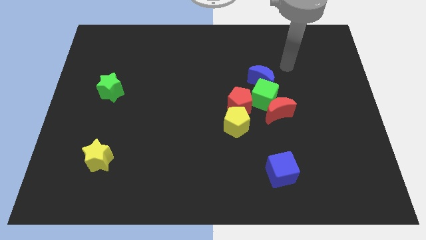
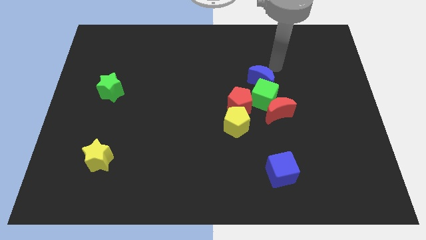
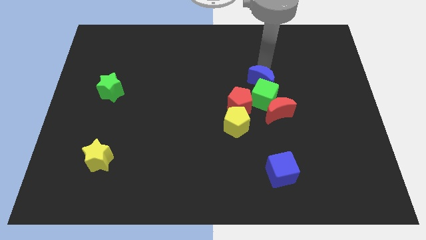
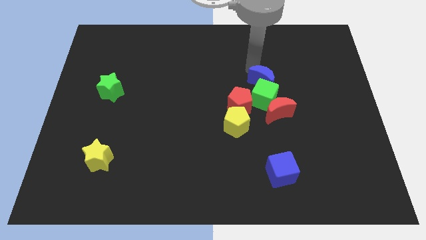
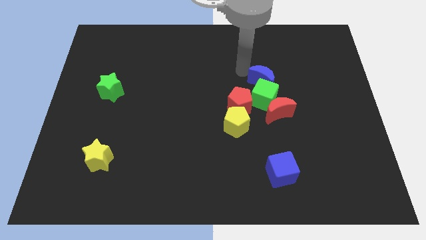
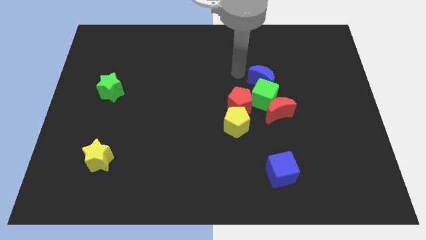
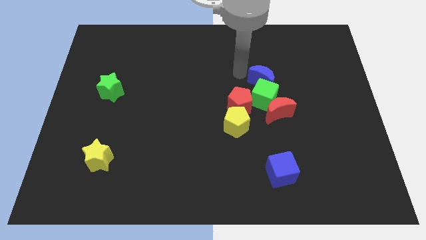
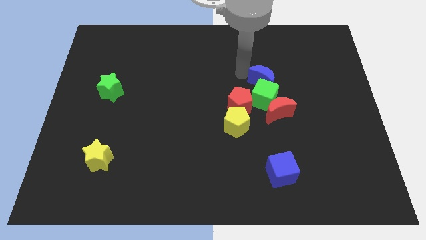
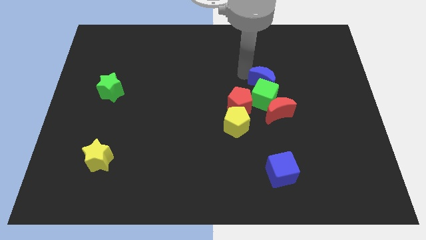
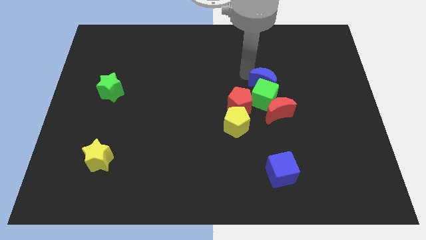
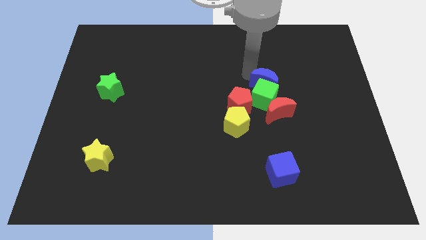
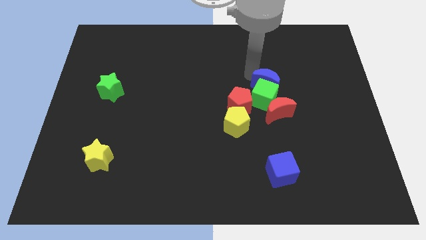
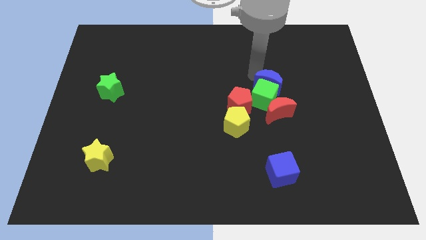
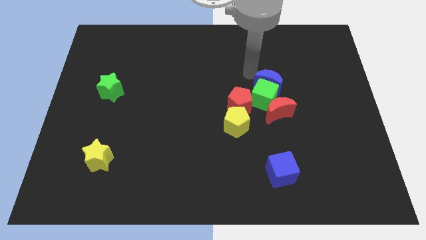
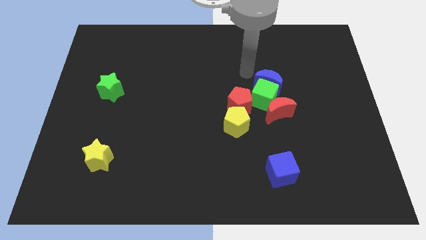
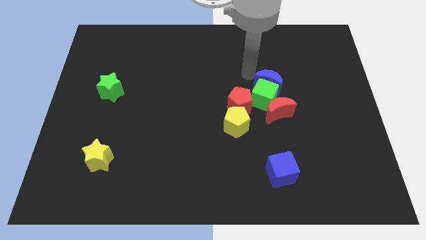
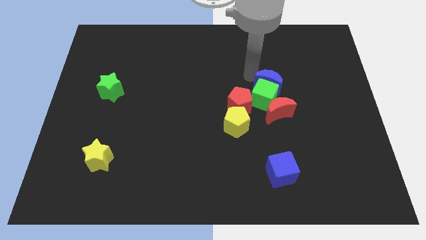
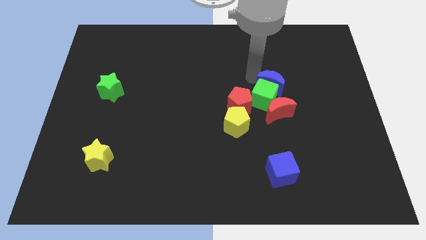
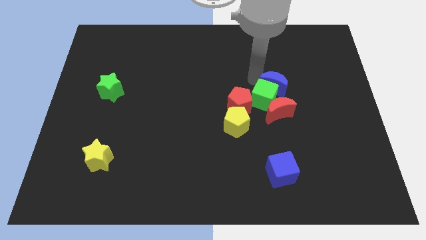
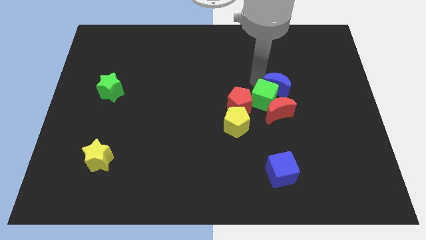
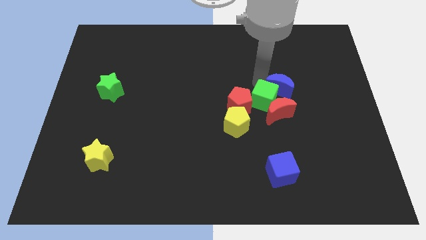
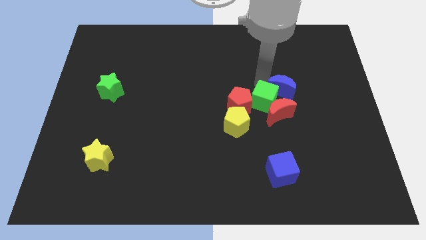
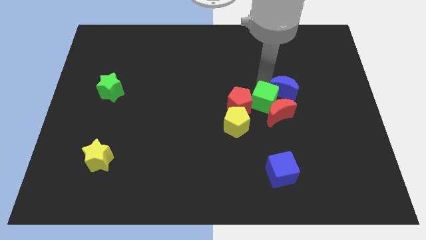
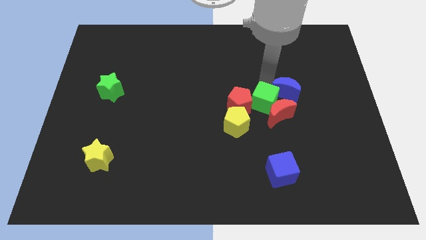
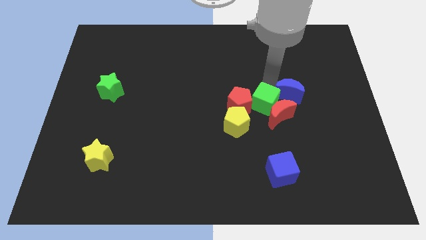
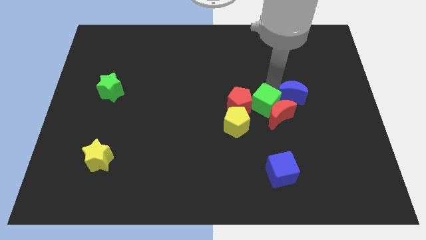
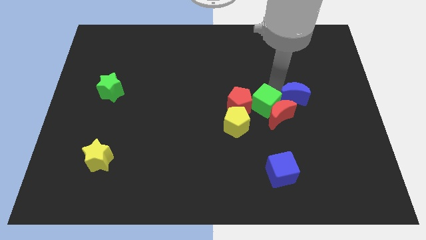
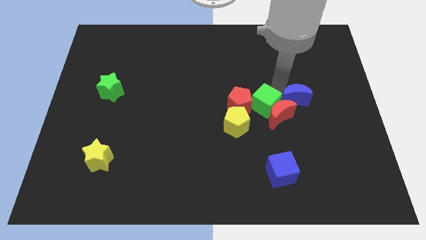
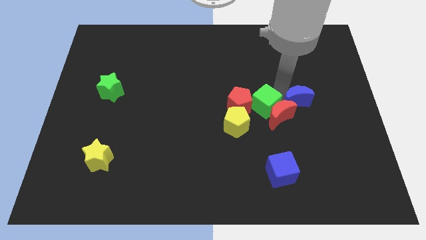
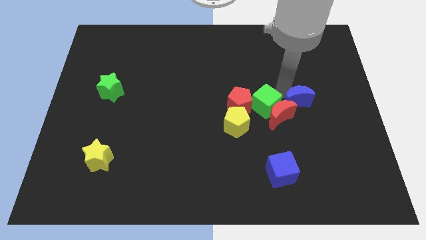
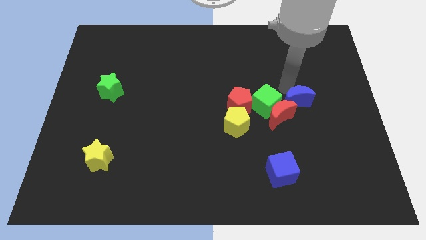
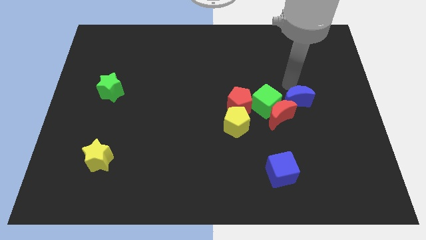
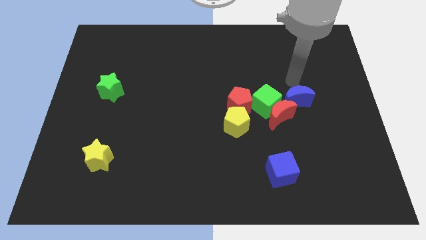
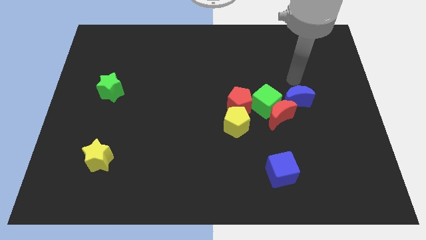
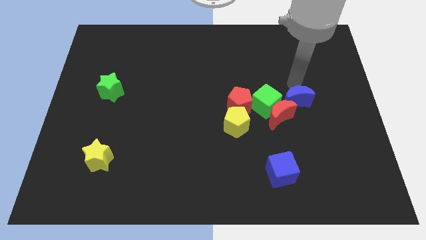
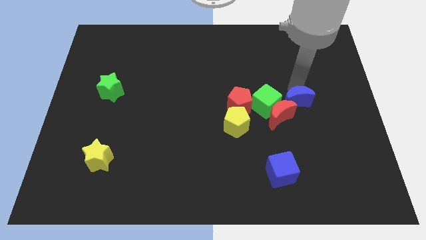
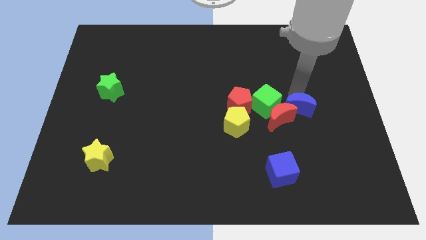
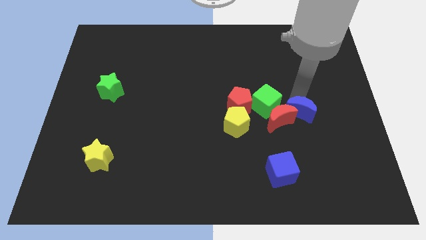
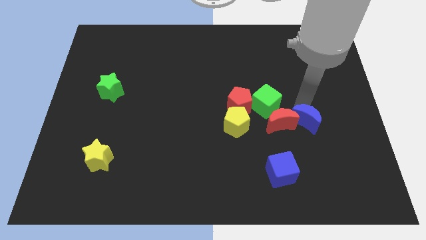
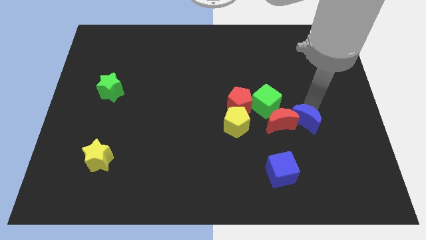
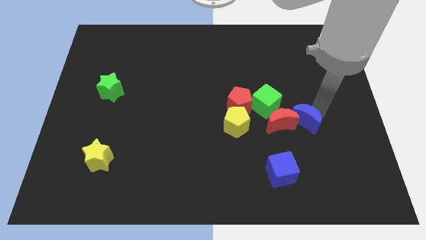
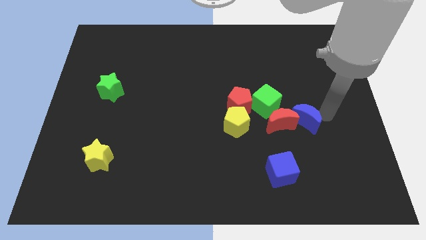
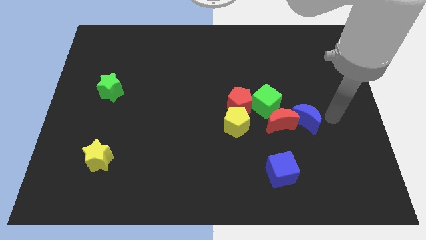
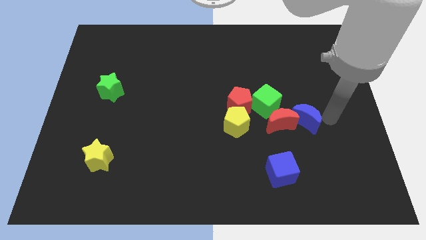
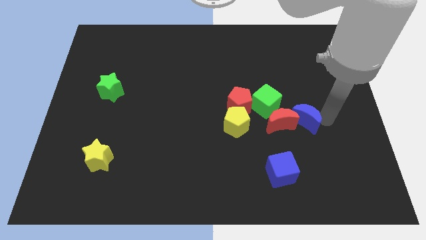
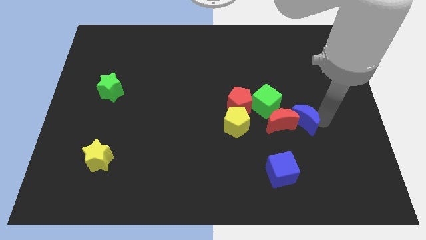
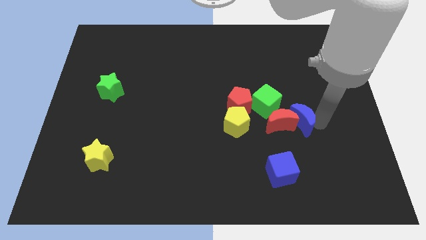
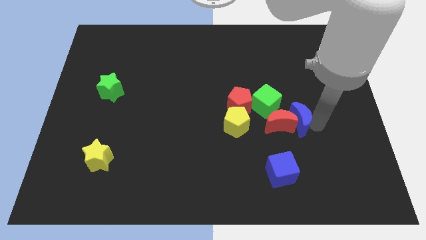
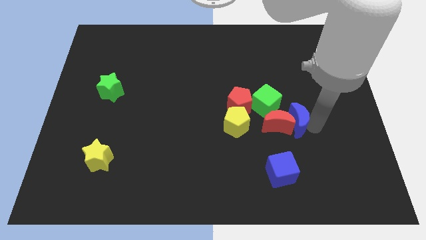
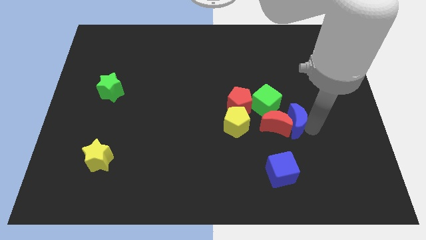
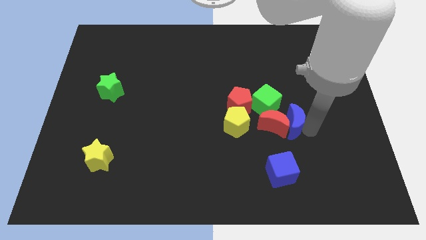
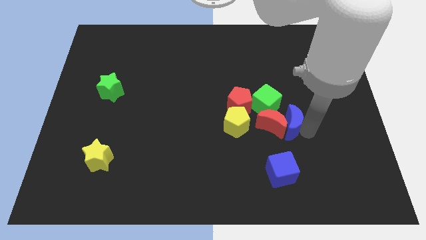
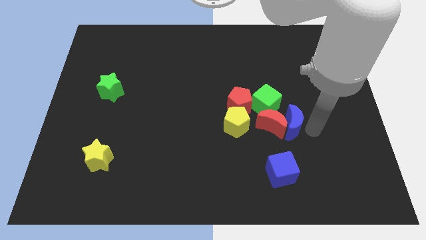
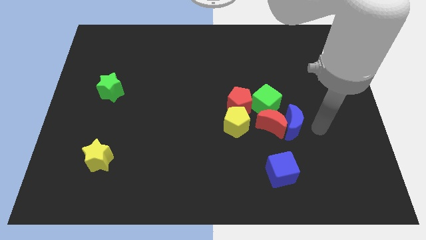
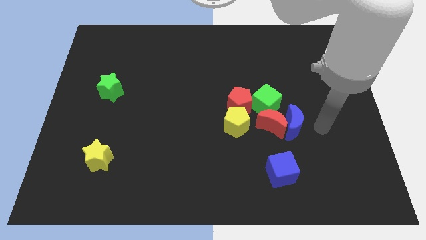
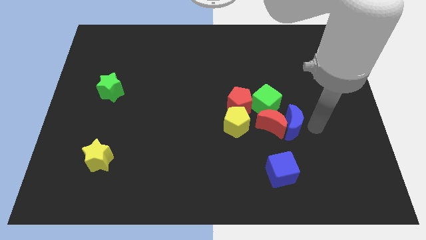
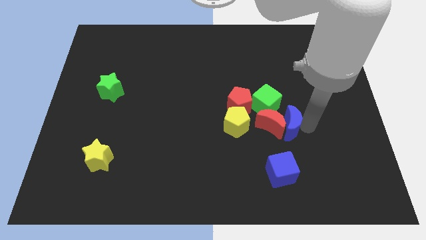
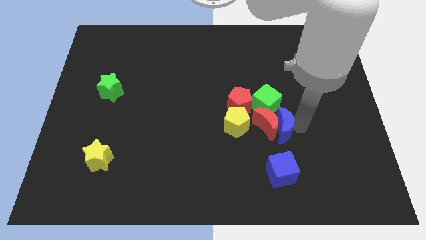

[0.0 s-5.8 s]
push the blue moon to the bottom right side of the red pentagon

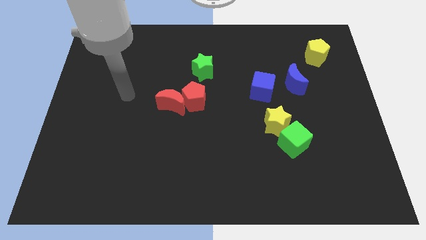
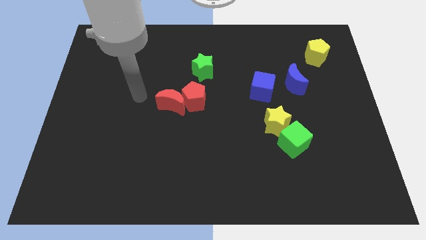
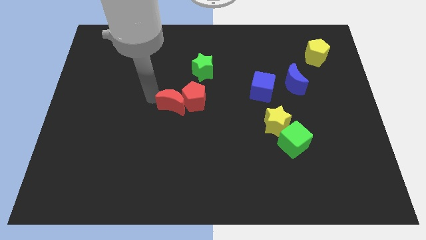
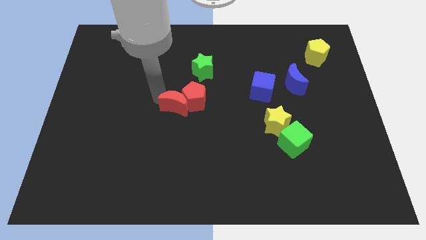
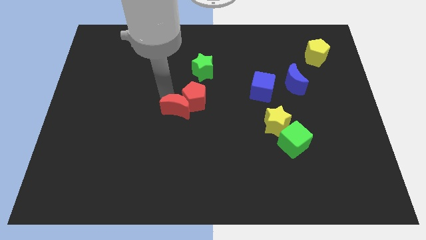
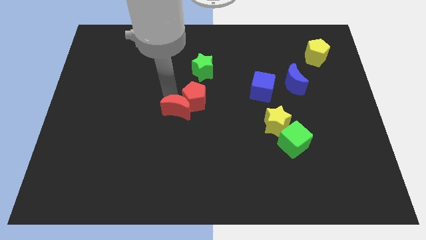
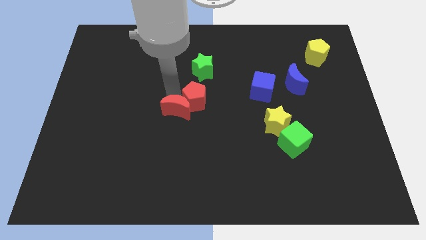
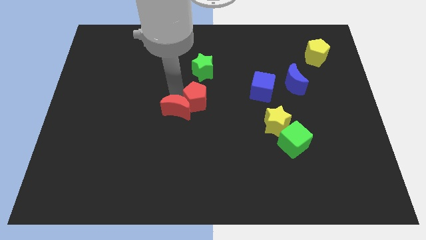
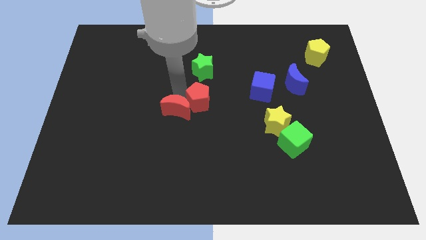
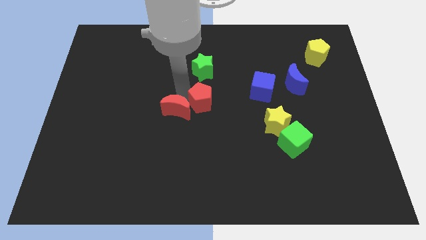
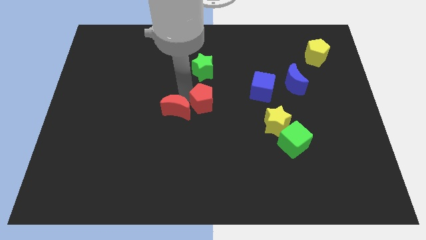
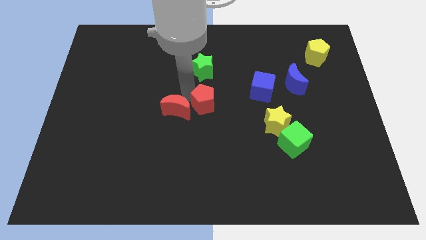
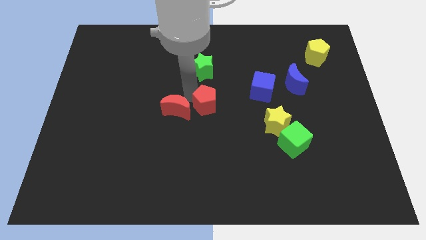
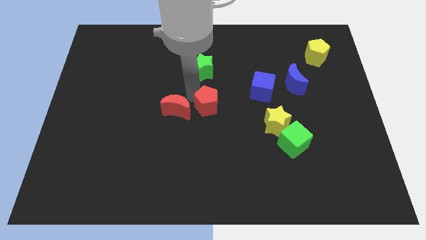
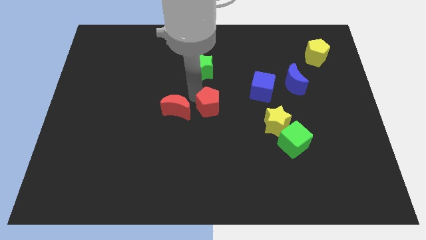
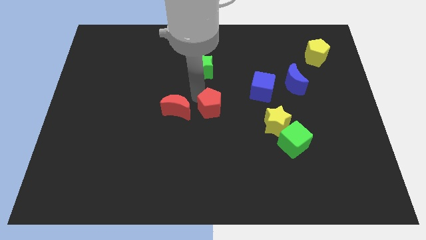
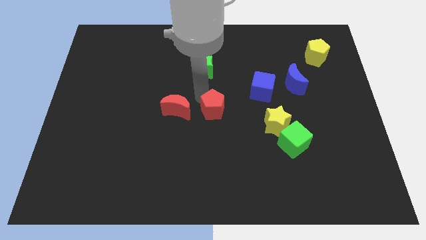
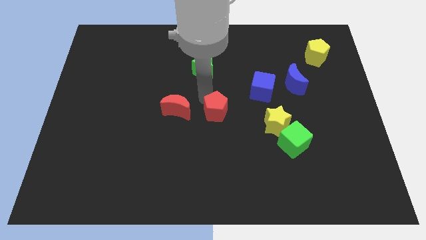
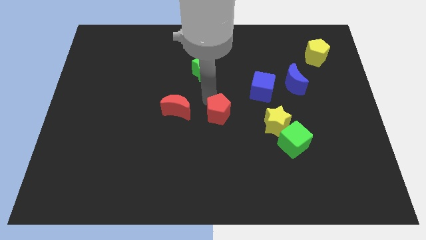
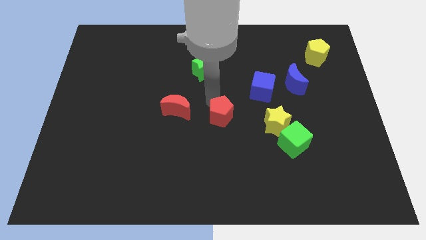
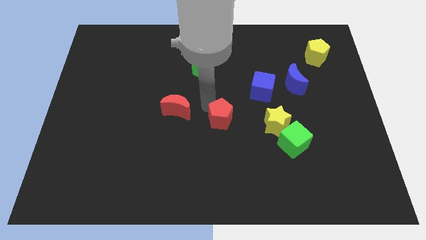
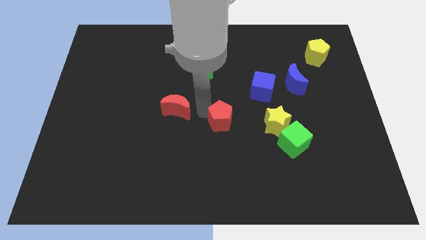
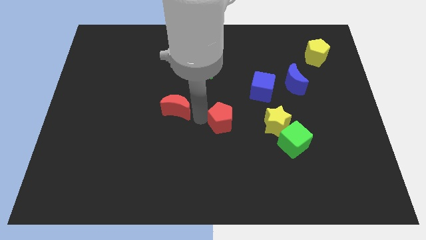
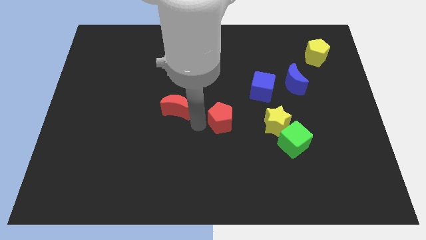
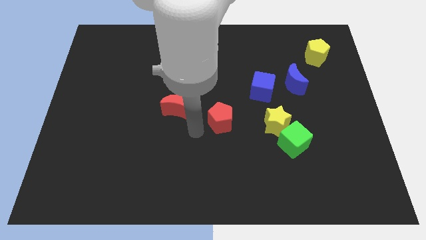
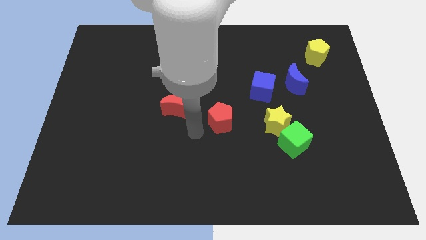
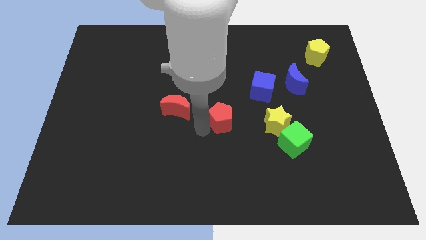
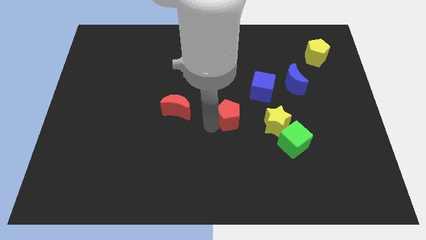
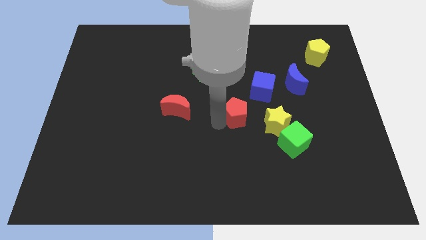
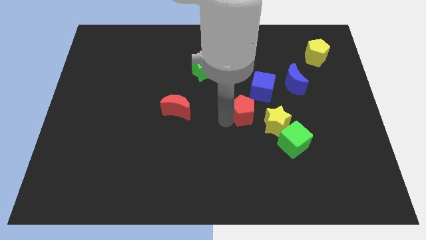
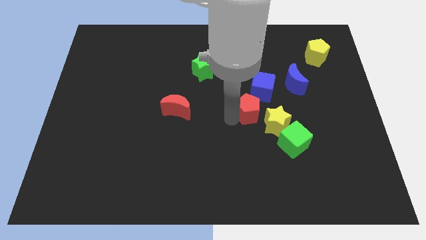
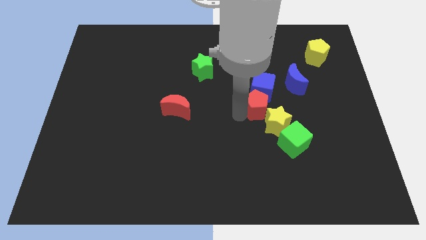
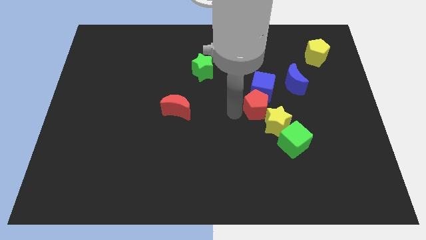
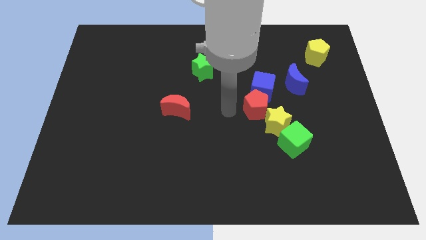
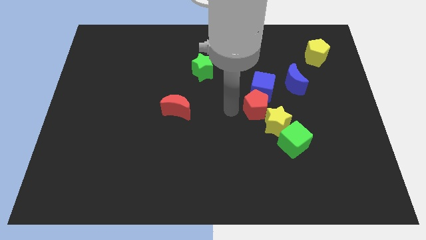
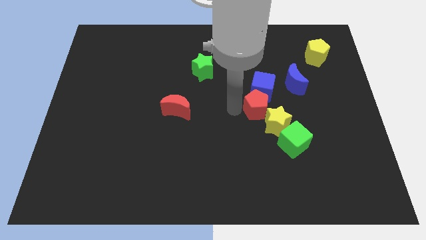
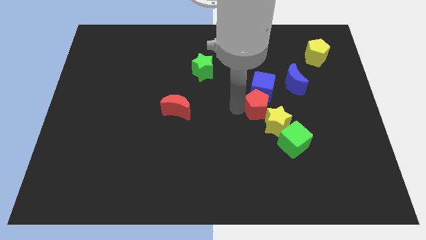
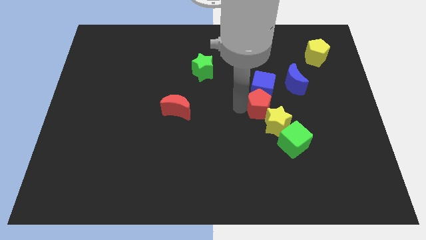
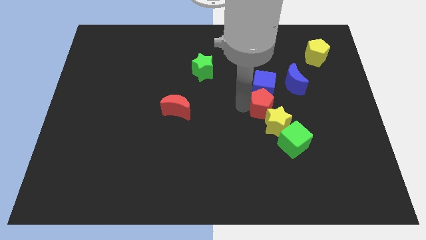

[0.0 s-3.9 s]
slide the red pentagon to the bottom right side of the blue cube
